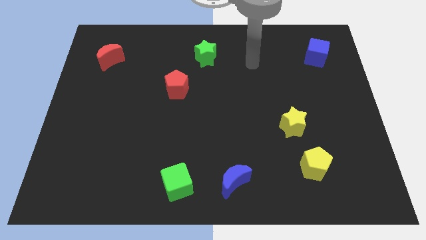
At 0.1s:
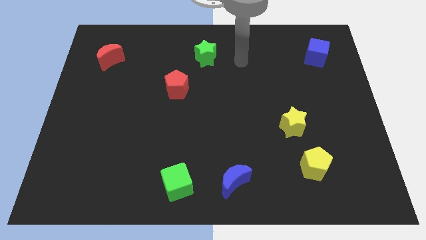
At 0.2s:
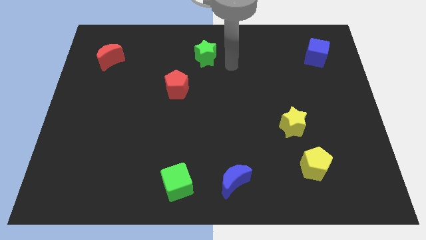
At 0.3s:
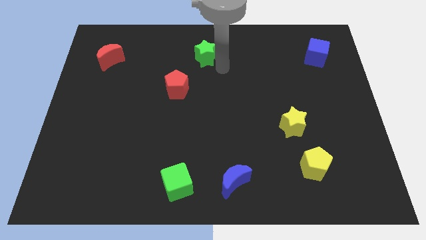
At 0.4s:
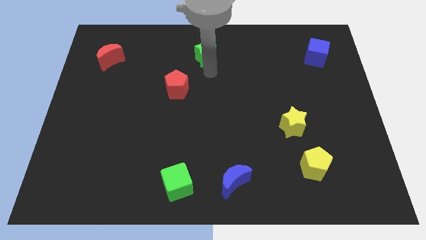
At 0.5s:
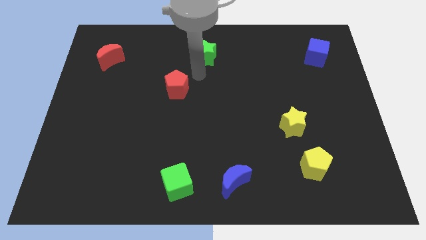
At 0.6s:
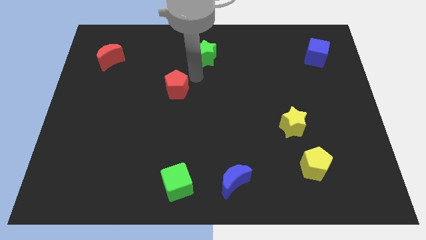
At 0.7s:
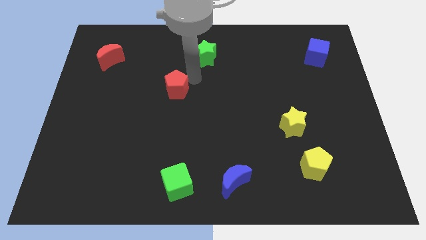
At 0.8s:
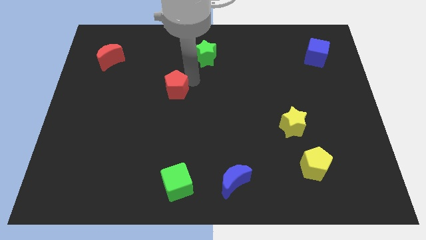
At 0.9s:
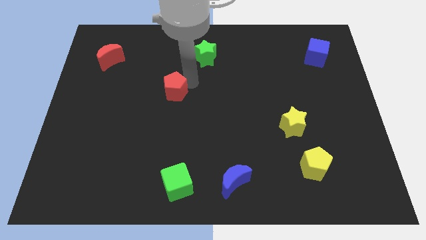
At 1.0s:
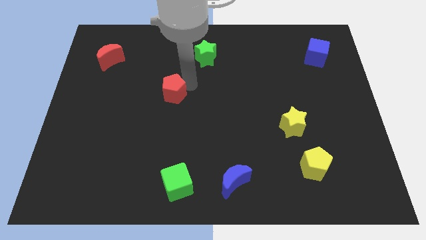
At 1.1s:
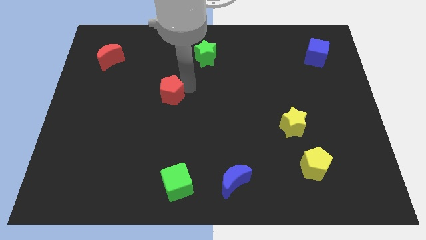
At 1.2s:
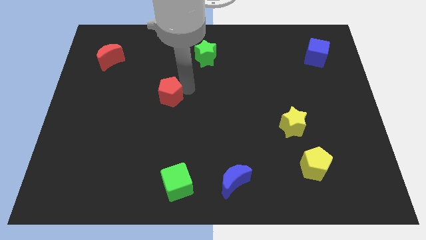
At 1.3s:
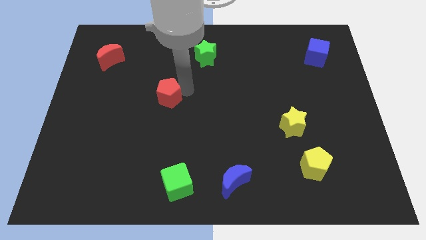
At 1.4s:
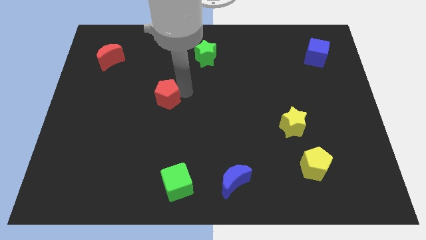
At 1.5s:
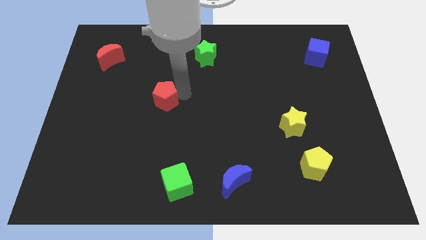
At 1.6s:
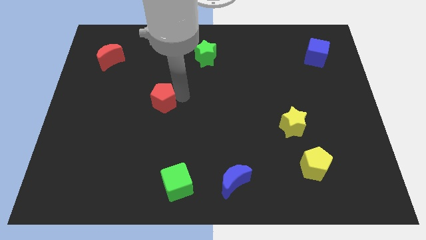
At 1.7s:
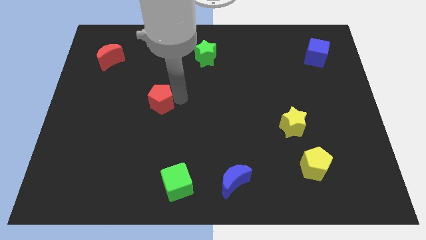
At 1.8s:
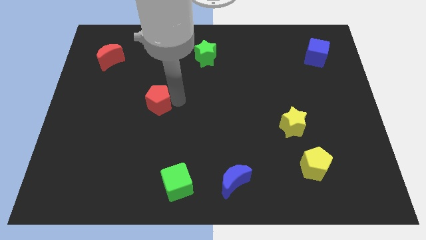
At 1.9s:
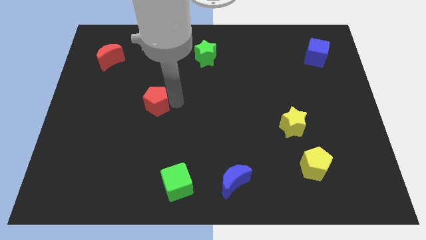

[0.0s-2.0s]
slightly slide the red pentagon down and then left

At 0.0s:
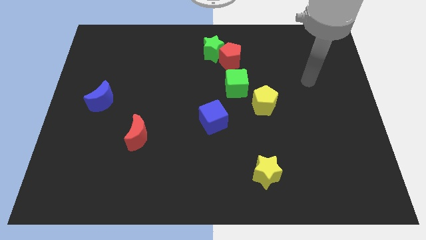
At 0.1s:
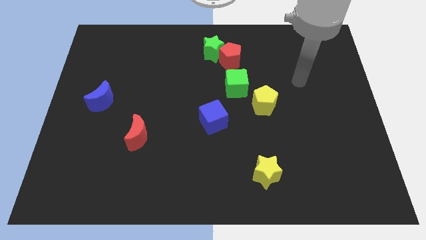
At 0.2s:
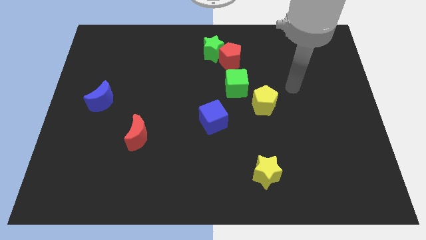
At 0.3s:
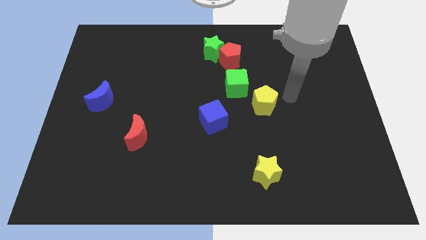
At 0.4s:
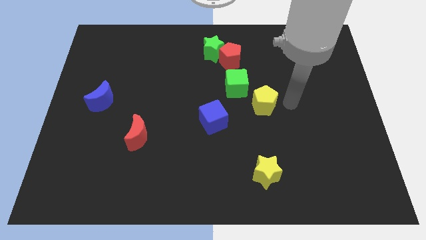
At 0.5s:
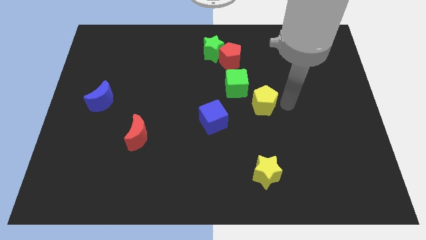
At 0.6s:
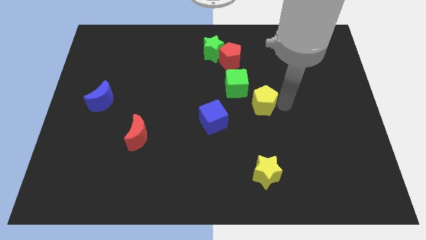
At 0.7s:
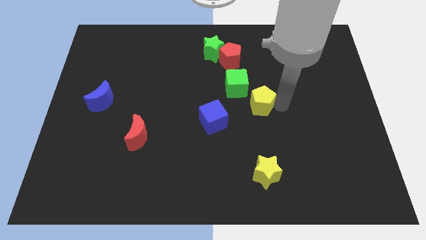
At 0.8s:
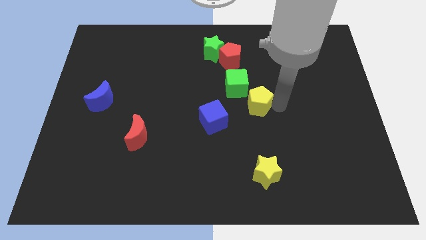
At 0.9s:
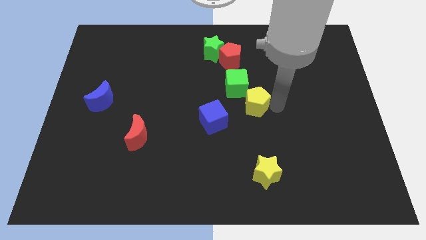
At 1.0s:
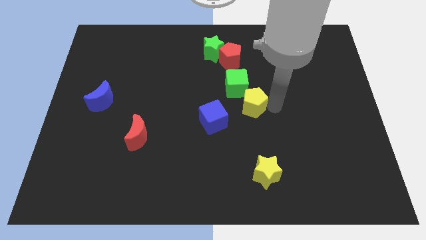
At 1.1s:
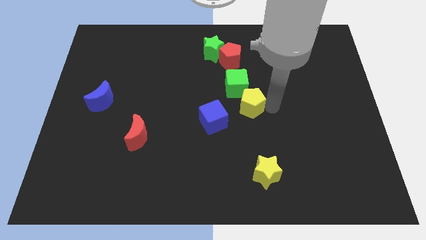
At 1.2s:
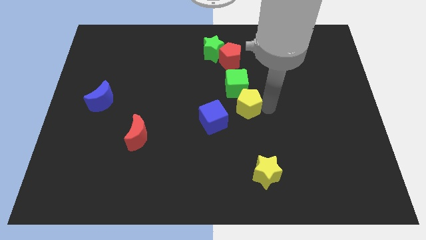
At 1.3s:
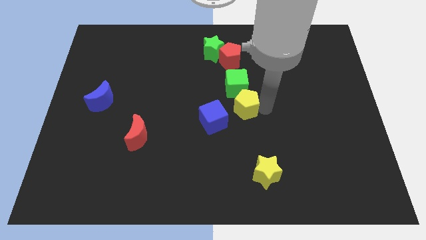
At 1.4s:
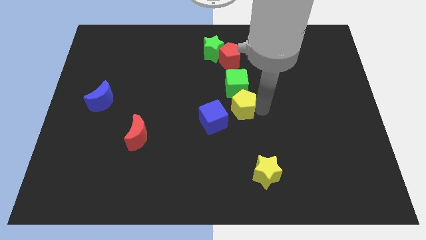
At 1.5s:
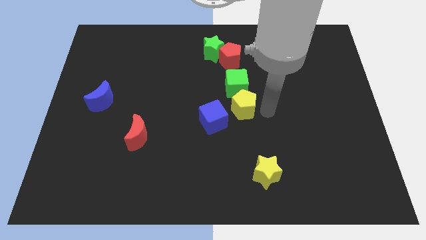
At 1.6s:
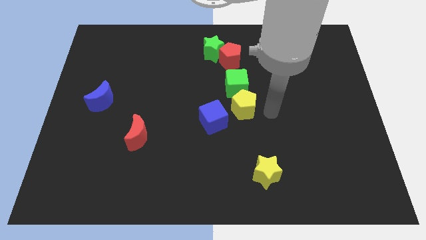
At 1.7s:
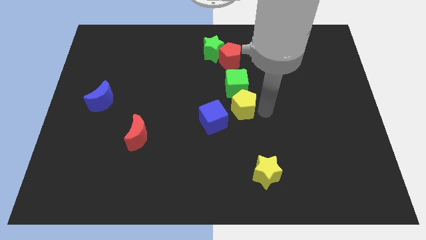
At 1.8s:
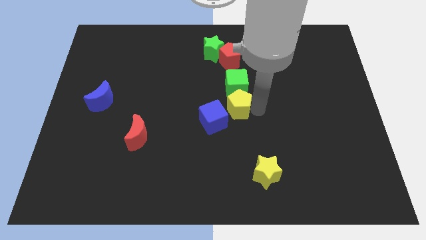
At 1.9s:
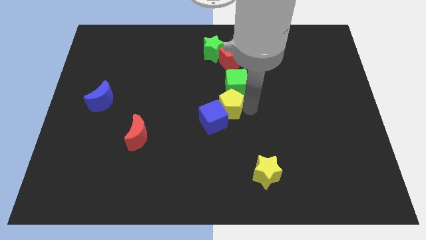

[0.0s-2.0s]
slide the yellow pentagon a bit left

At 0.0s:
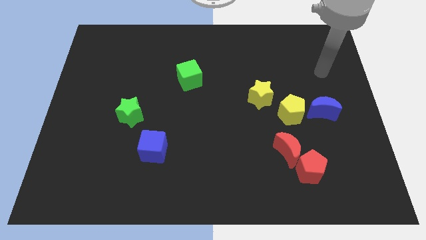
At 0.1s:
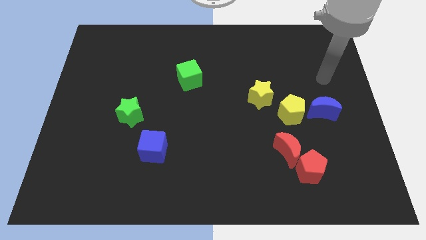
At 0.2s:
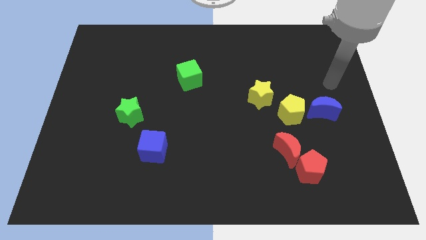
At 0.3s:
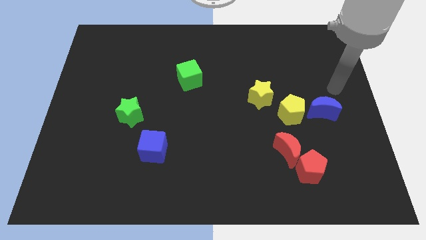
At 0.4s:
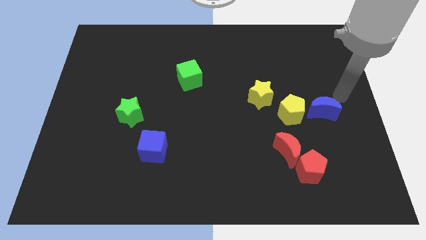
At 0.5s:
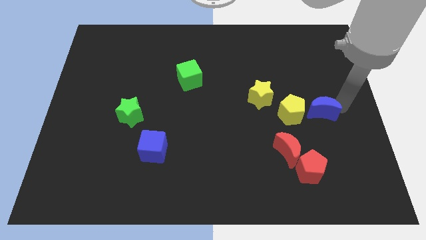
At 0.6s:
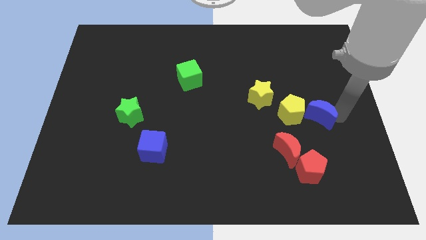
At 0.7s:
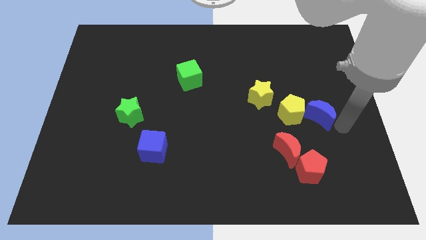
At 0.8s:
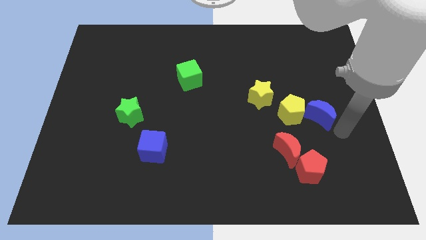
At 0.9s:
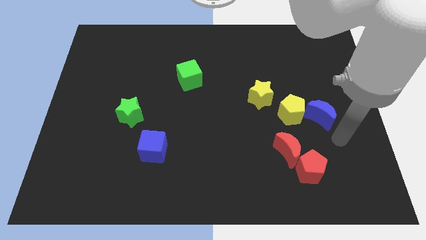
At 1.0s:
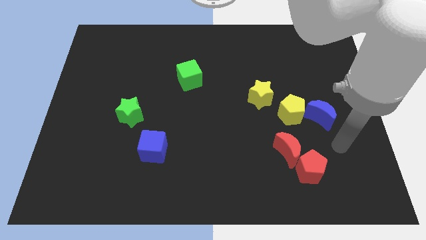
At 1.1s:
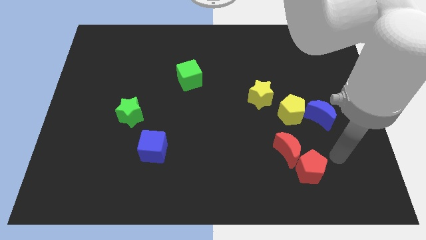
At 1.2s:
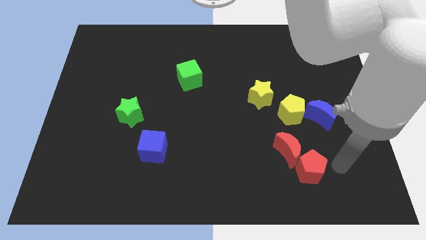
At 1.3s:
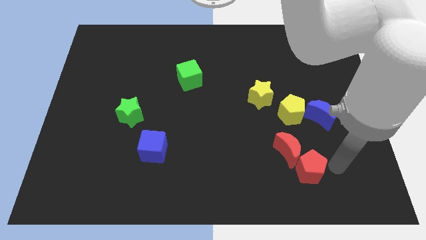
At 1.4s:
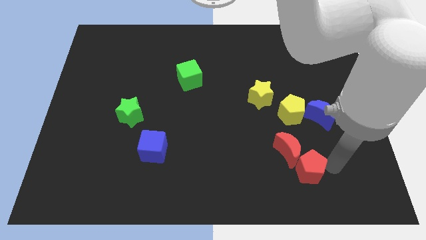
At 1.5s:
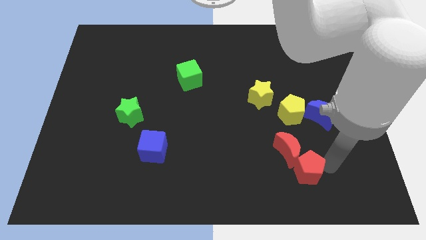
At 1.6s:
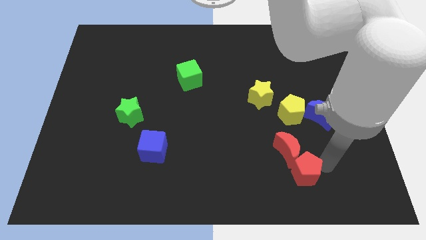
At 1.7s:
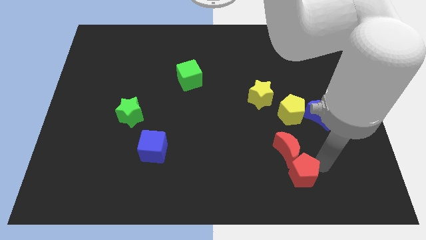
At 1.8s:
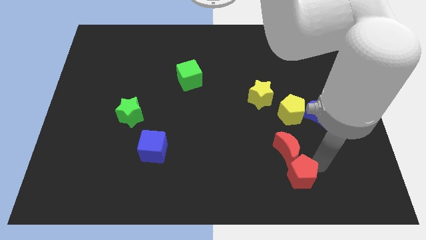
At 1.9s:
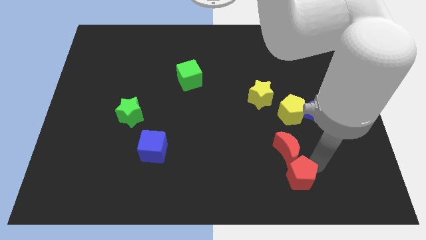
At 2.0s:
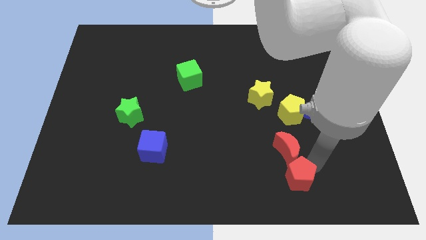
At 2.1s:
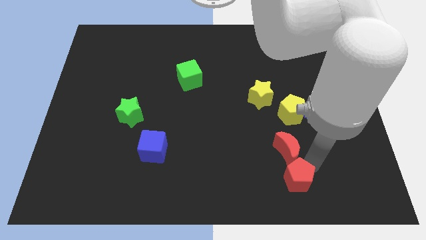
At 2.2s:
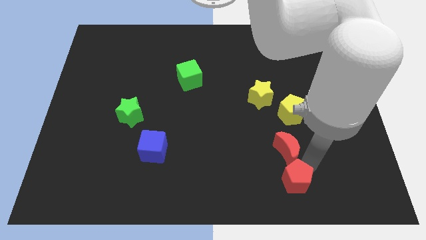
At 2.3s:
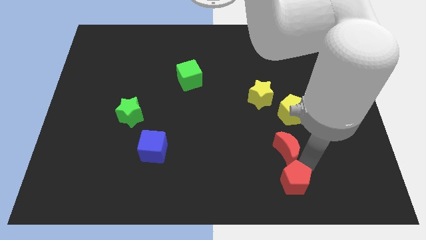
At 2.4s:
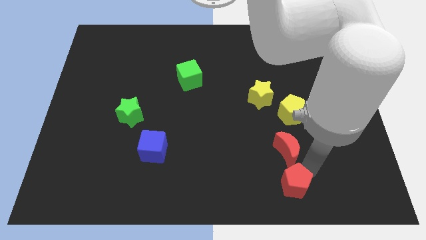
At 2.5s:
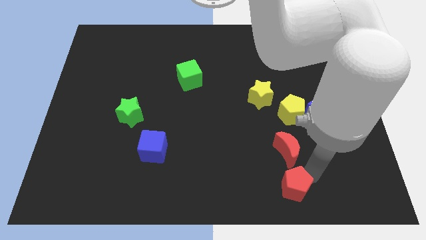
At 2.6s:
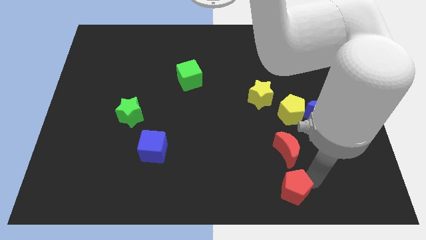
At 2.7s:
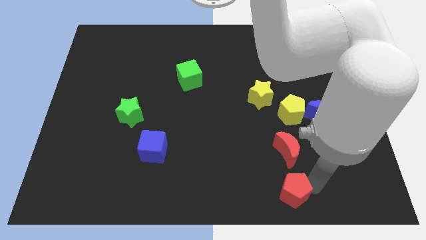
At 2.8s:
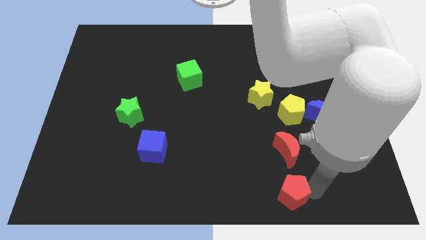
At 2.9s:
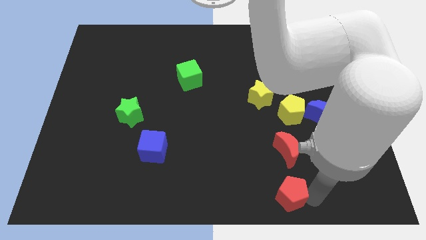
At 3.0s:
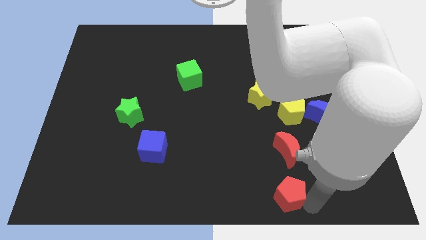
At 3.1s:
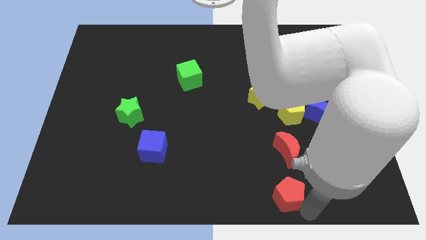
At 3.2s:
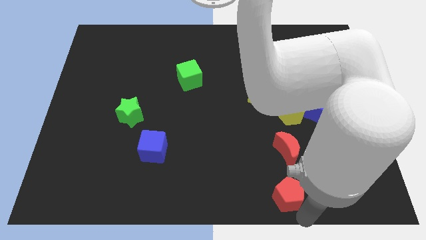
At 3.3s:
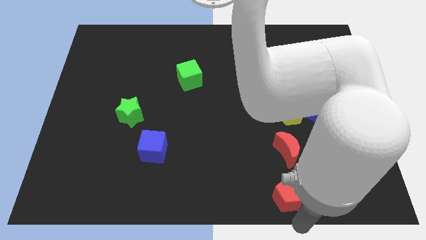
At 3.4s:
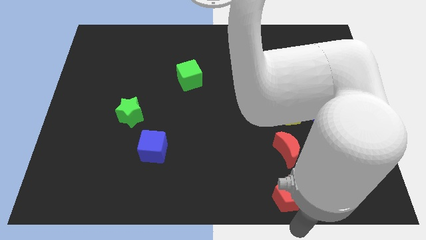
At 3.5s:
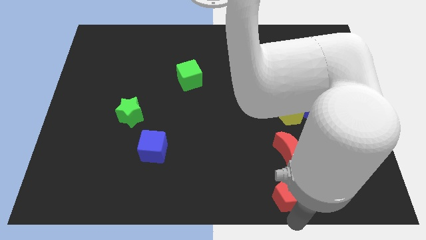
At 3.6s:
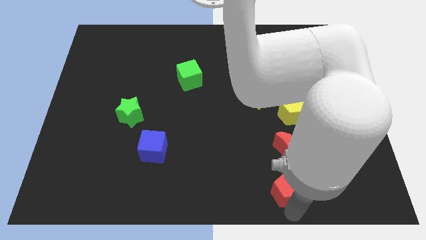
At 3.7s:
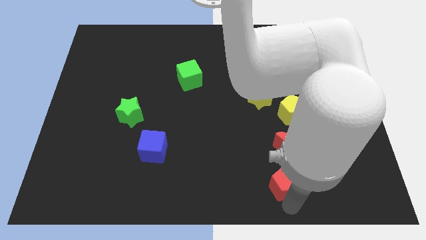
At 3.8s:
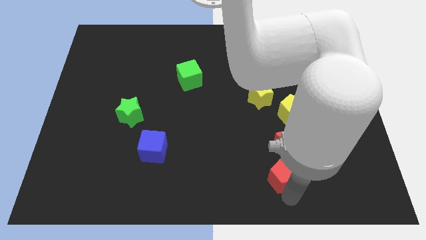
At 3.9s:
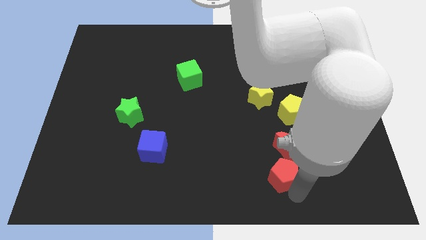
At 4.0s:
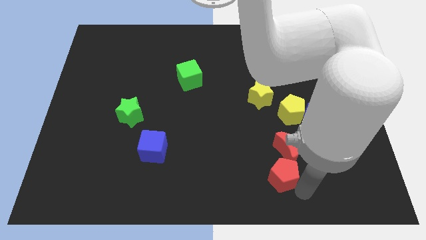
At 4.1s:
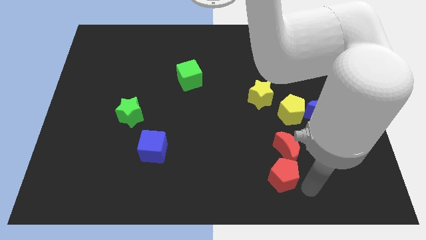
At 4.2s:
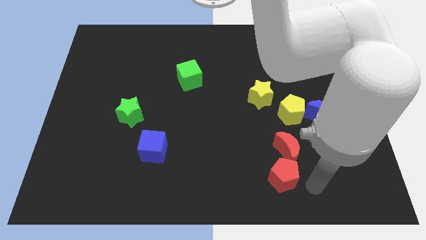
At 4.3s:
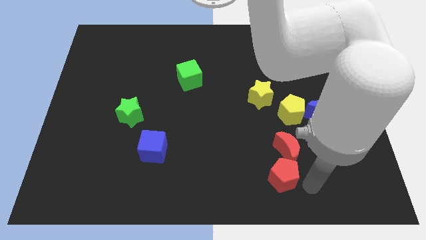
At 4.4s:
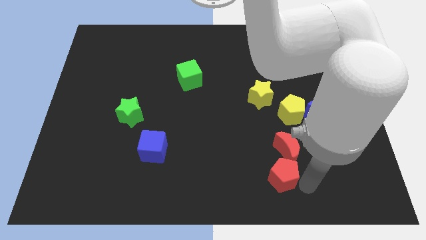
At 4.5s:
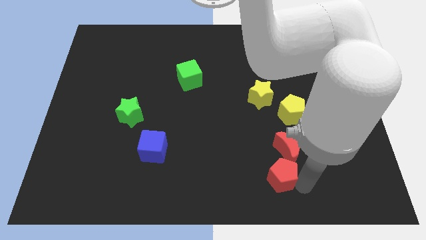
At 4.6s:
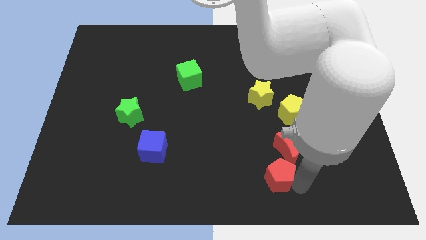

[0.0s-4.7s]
slide the red pentagon a bit to the left
